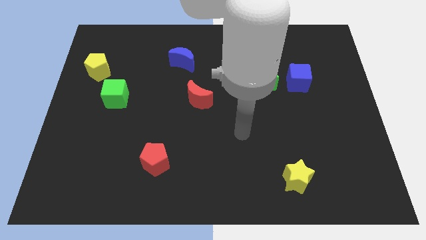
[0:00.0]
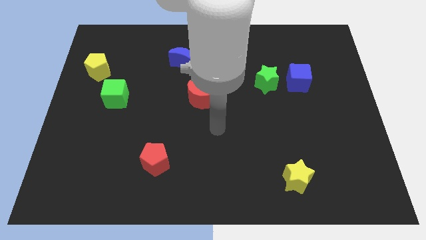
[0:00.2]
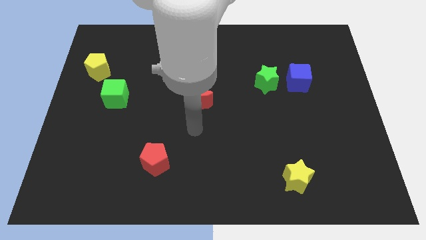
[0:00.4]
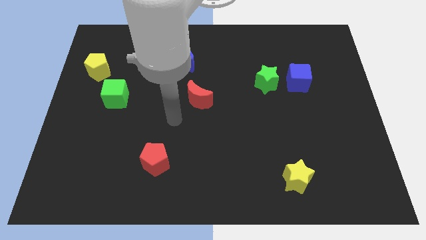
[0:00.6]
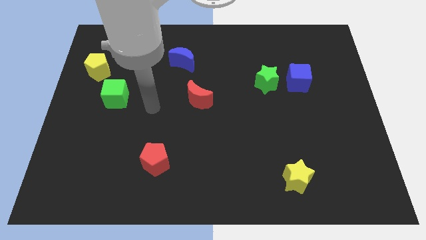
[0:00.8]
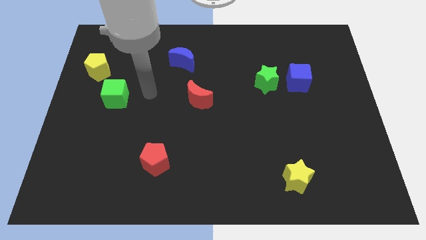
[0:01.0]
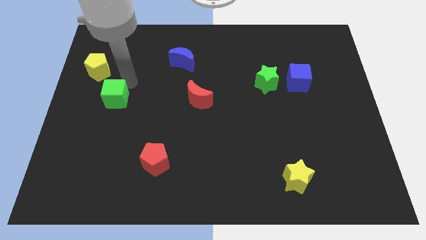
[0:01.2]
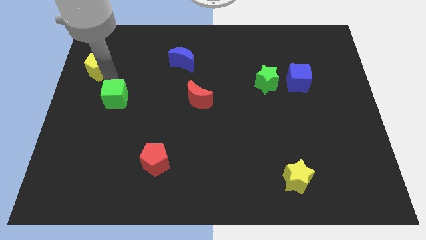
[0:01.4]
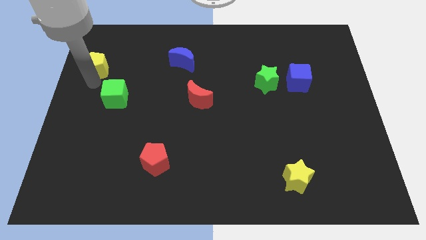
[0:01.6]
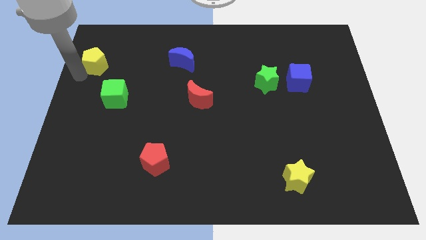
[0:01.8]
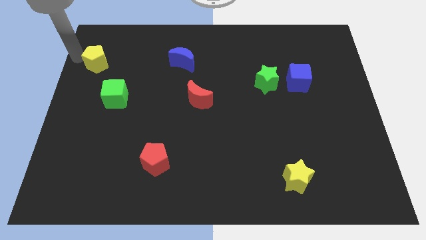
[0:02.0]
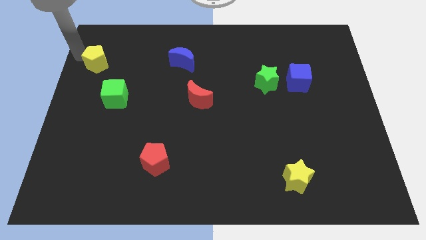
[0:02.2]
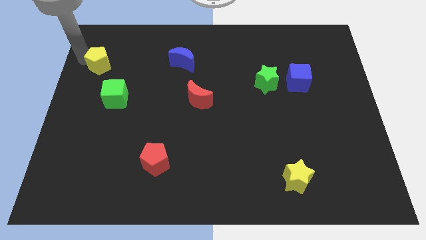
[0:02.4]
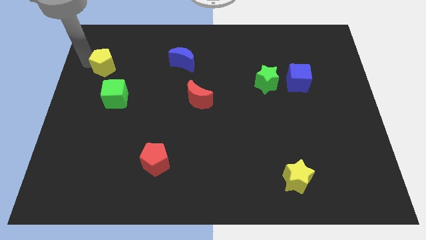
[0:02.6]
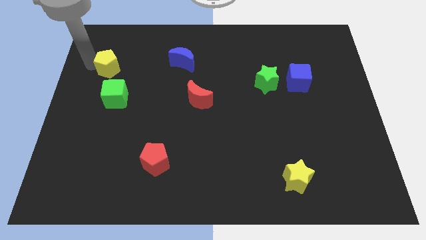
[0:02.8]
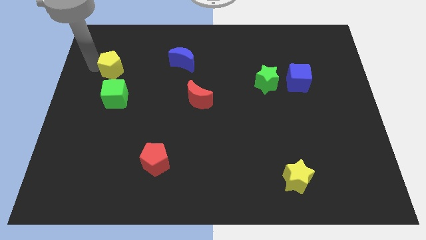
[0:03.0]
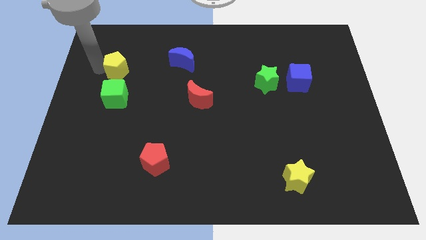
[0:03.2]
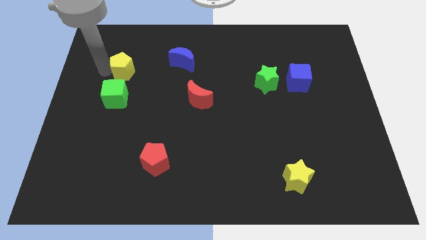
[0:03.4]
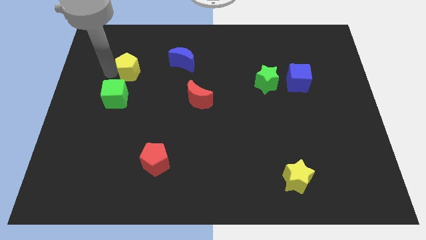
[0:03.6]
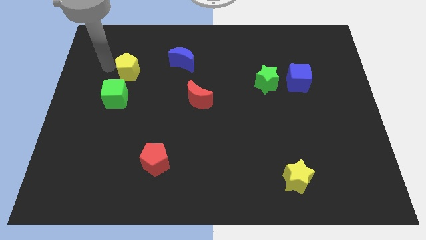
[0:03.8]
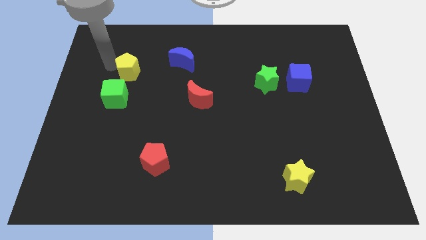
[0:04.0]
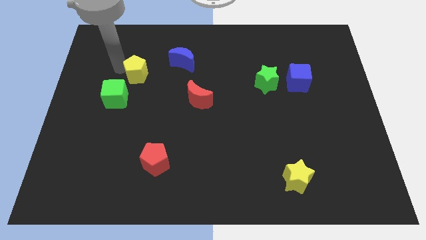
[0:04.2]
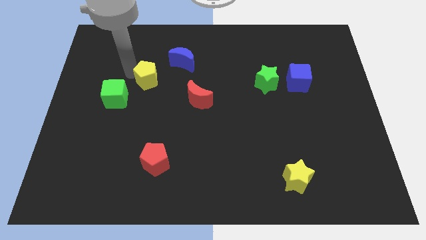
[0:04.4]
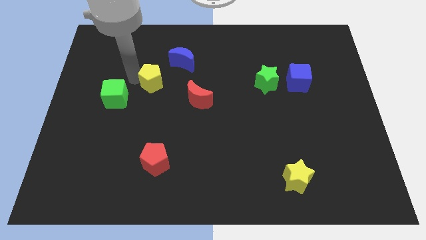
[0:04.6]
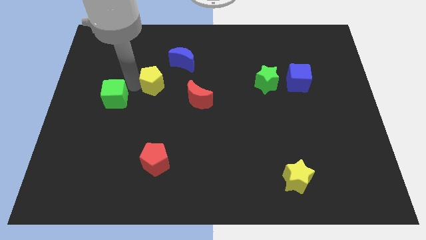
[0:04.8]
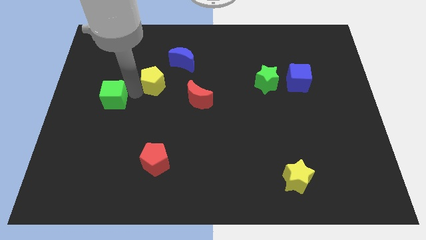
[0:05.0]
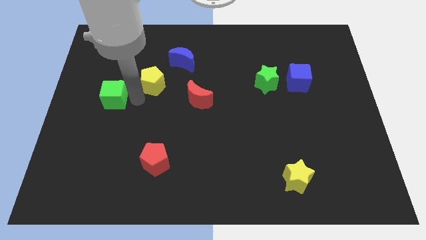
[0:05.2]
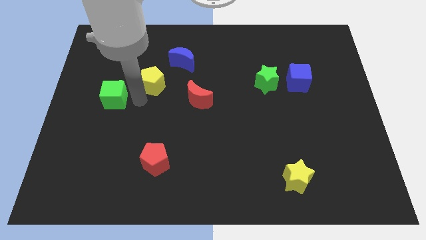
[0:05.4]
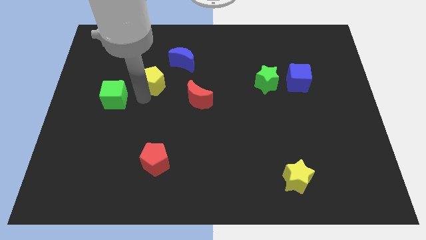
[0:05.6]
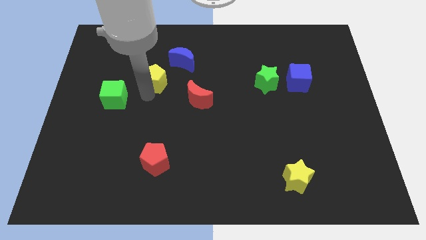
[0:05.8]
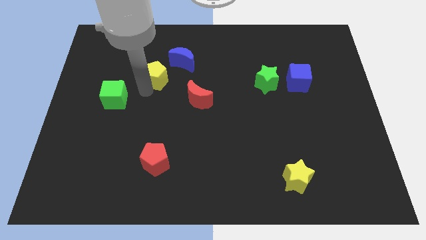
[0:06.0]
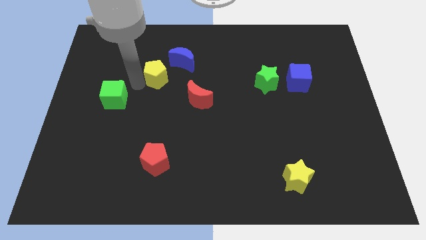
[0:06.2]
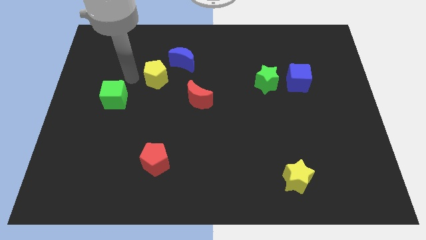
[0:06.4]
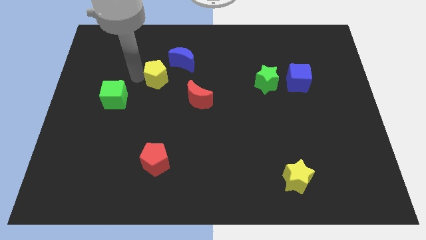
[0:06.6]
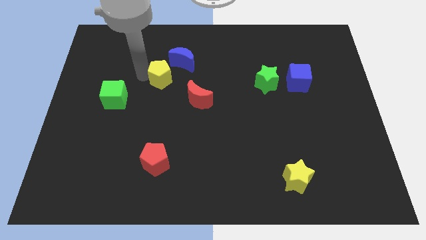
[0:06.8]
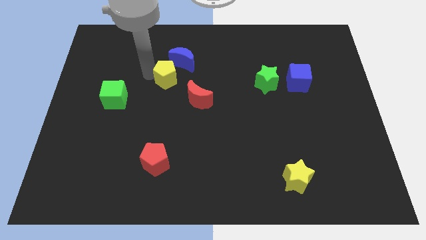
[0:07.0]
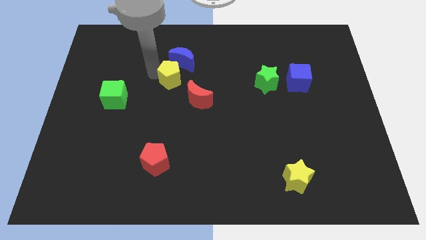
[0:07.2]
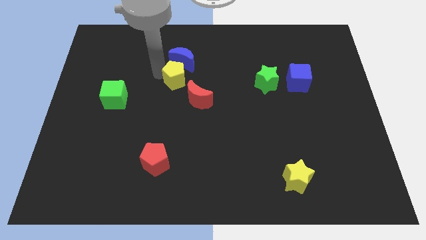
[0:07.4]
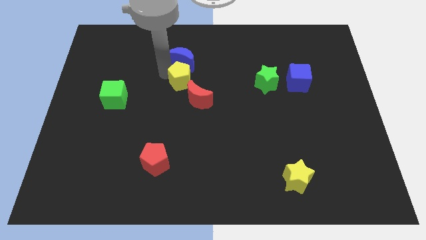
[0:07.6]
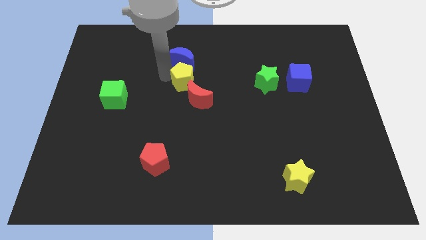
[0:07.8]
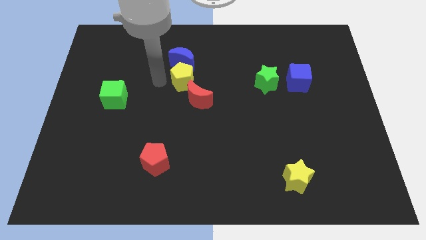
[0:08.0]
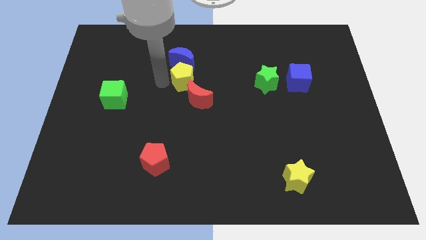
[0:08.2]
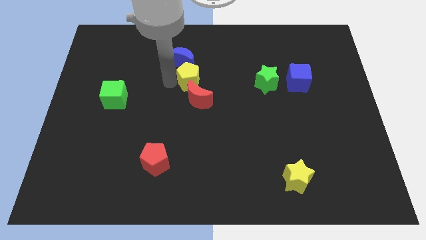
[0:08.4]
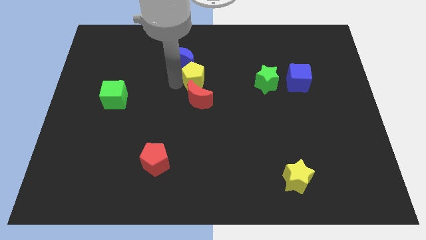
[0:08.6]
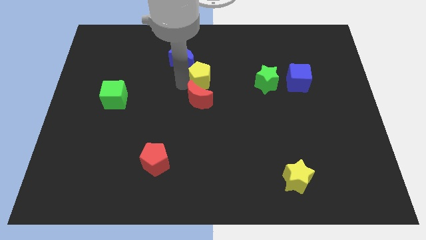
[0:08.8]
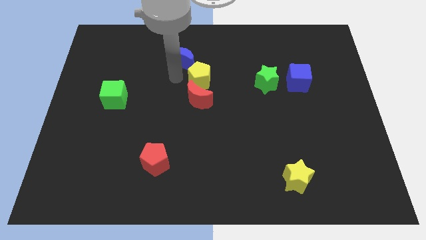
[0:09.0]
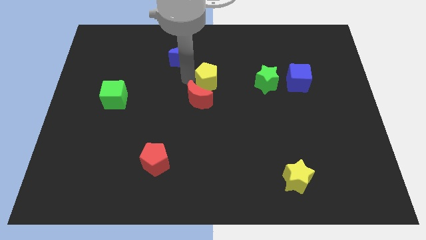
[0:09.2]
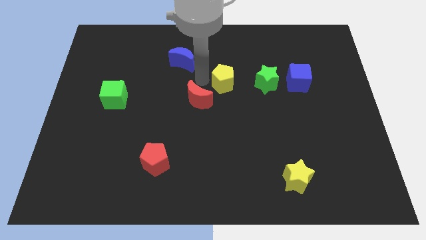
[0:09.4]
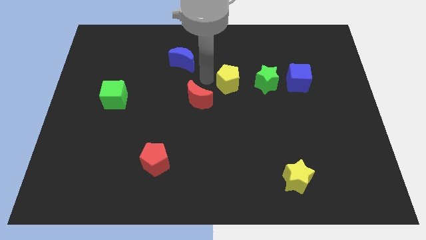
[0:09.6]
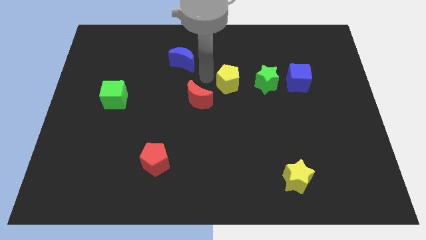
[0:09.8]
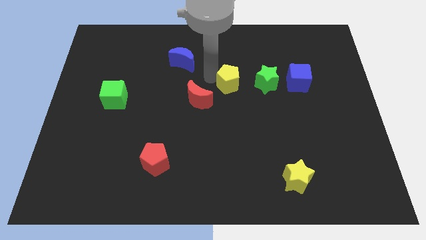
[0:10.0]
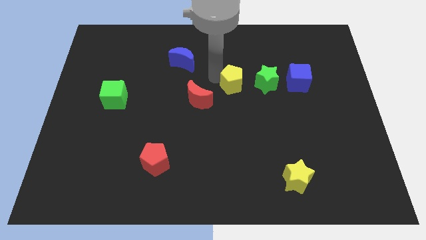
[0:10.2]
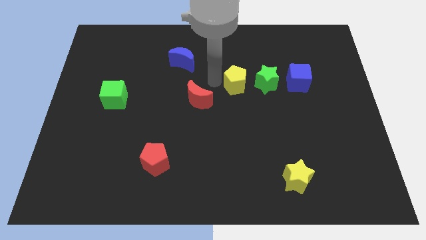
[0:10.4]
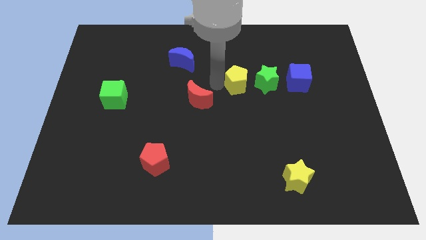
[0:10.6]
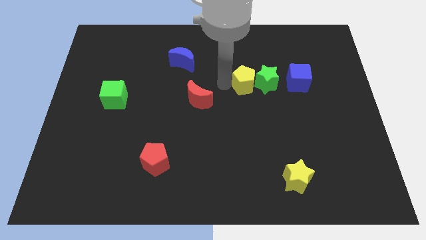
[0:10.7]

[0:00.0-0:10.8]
slide the yellow pentagon close to the green star

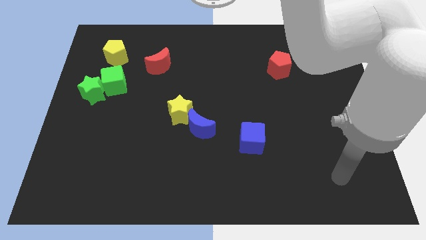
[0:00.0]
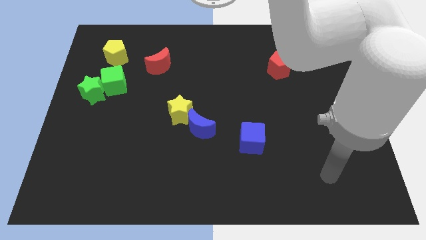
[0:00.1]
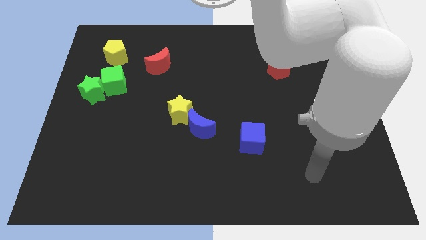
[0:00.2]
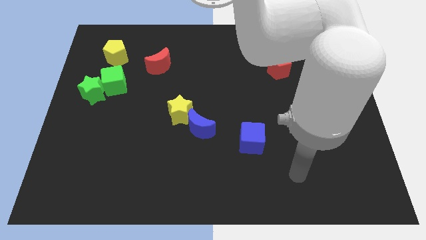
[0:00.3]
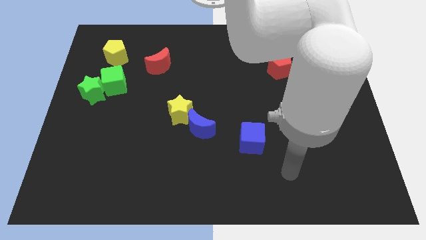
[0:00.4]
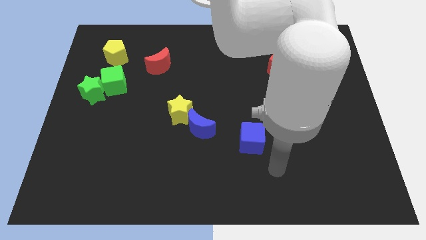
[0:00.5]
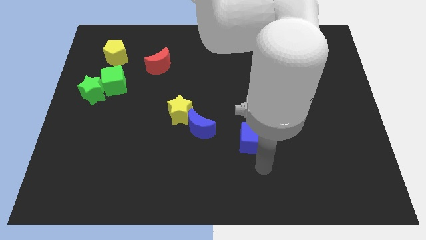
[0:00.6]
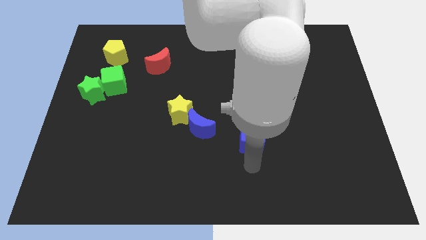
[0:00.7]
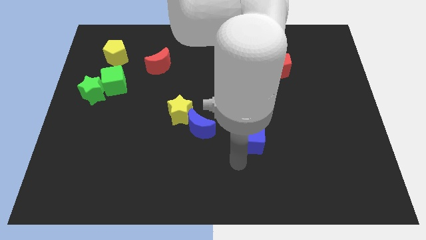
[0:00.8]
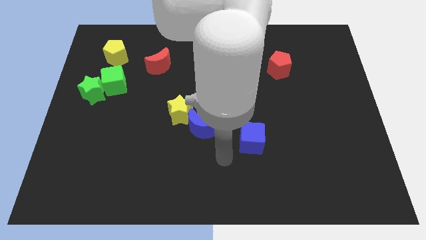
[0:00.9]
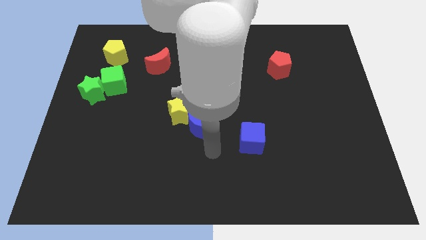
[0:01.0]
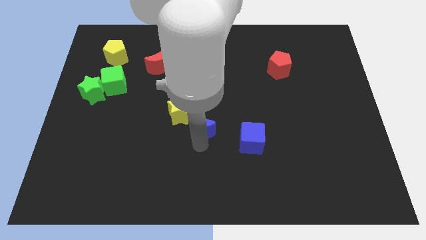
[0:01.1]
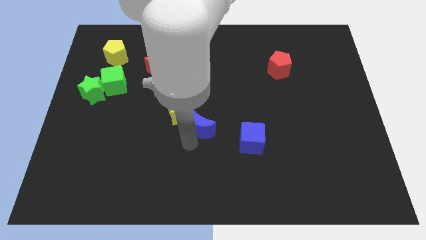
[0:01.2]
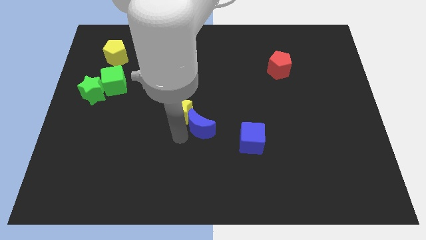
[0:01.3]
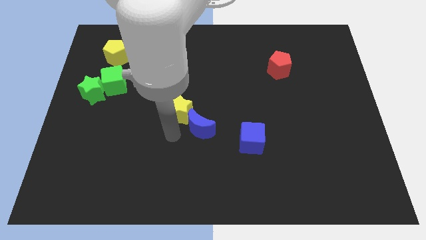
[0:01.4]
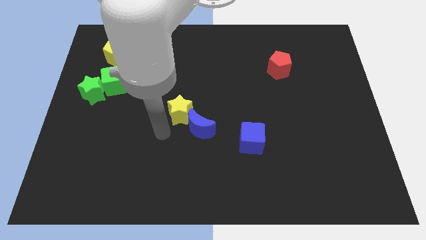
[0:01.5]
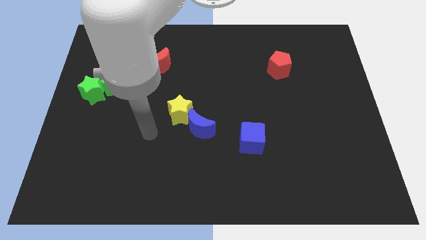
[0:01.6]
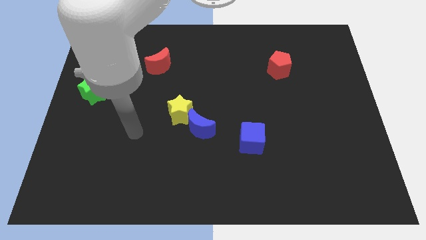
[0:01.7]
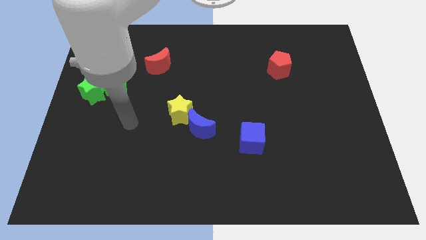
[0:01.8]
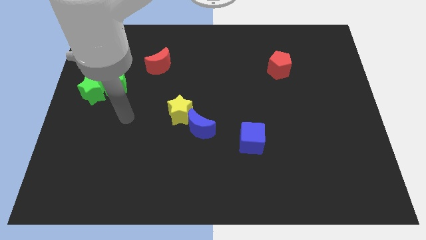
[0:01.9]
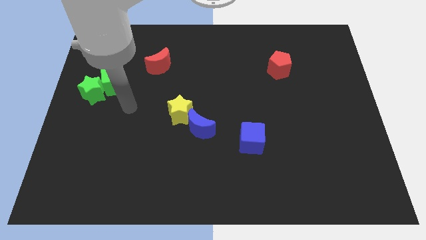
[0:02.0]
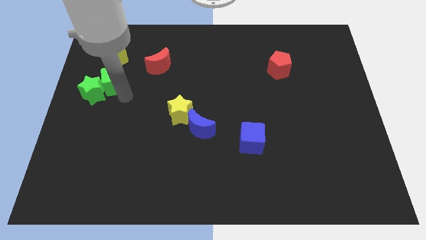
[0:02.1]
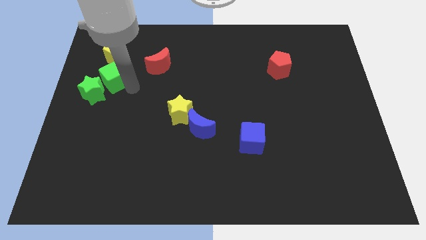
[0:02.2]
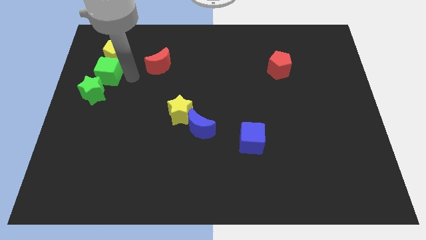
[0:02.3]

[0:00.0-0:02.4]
slide the yellow pentagon towards the green cube
